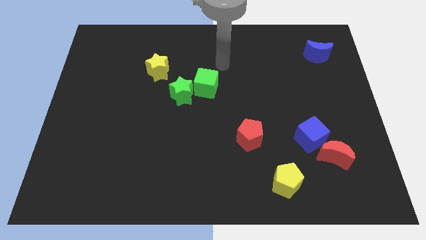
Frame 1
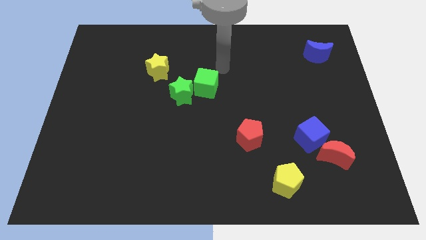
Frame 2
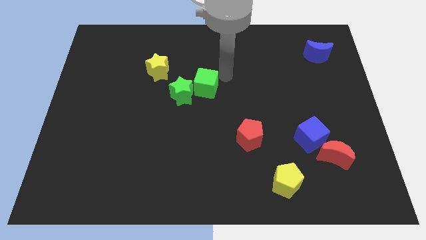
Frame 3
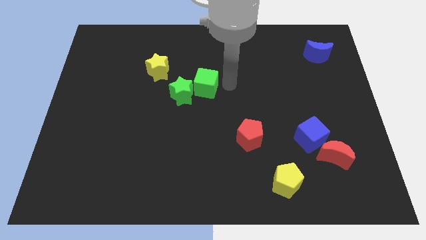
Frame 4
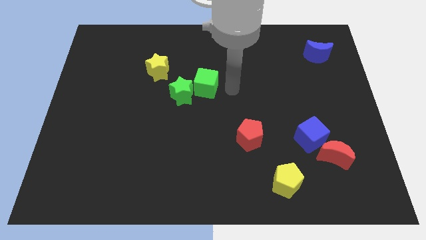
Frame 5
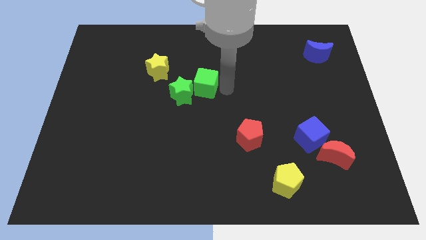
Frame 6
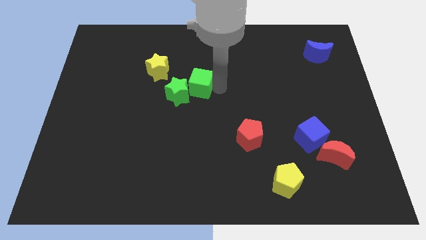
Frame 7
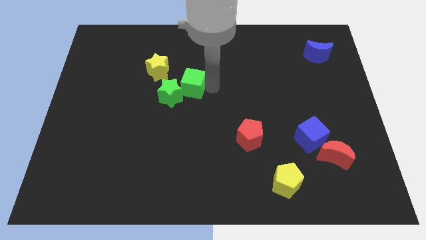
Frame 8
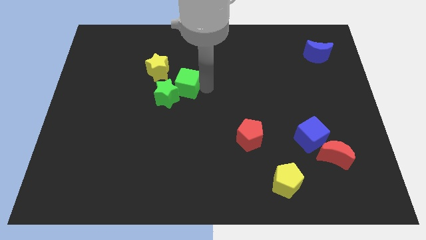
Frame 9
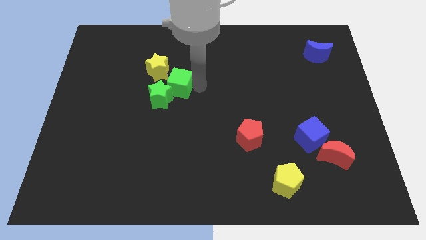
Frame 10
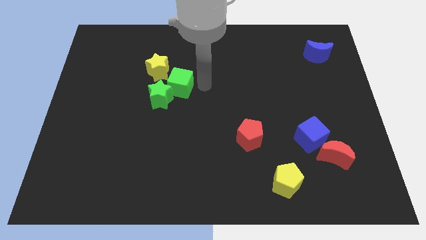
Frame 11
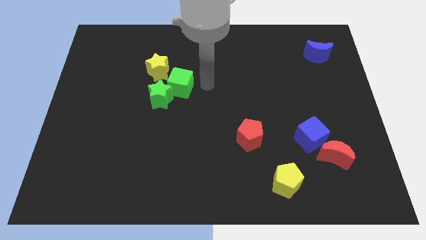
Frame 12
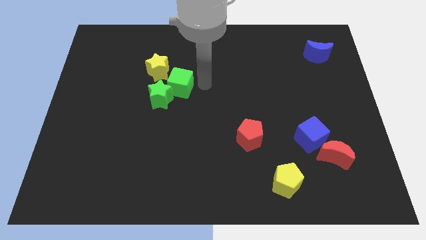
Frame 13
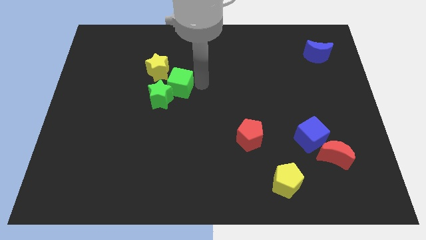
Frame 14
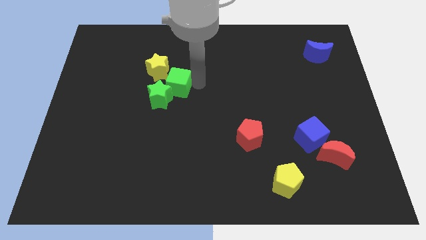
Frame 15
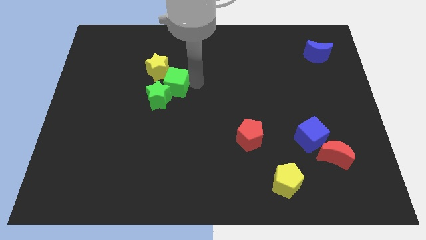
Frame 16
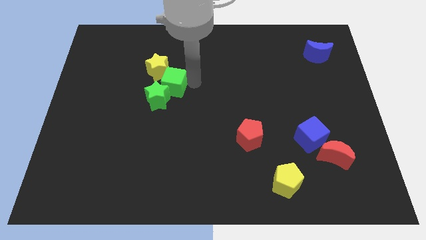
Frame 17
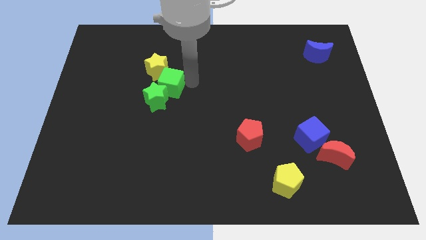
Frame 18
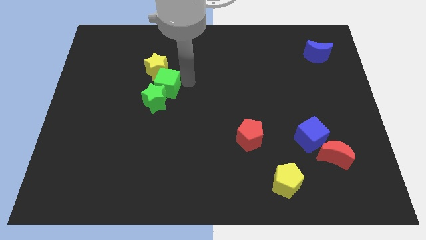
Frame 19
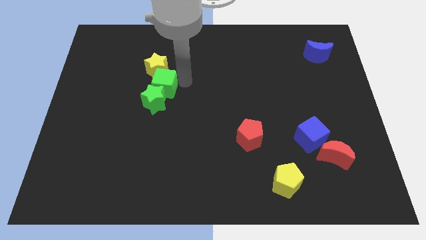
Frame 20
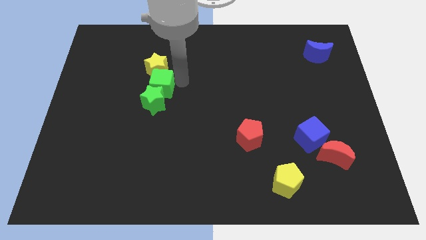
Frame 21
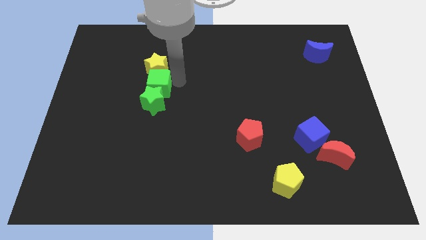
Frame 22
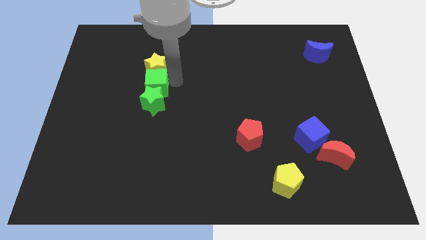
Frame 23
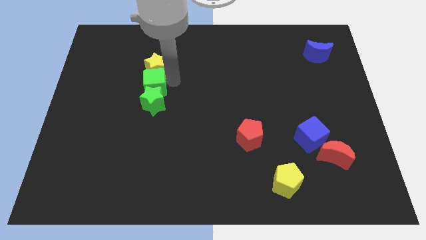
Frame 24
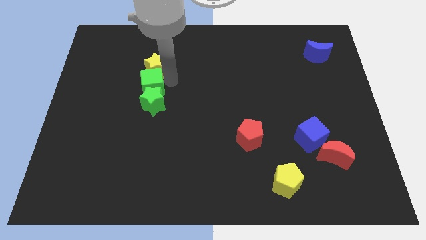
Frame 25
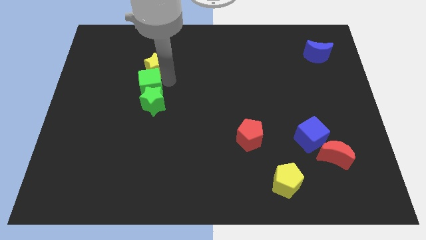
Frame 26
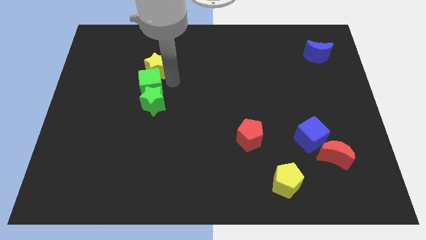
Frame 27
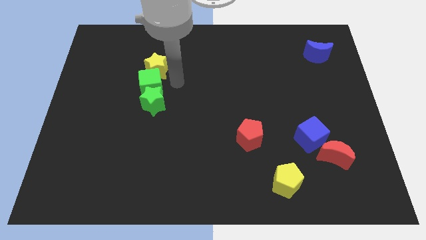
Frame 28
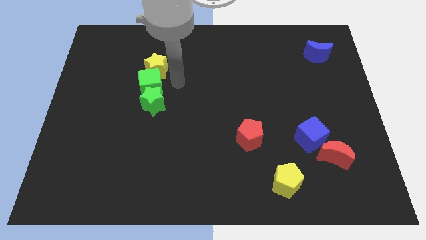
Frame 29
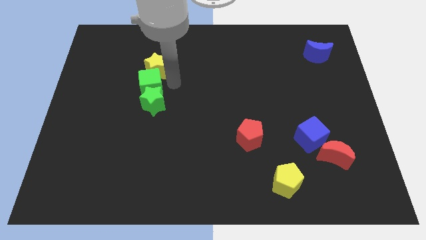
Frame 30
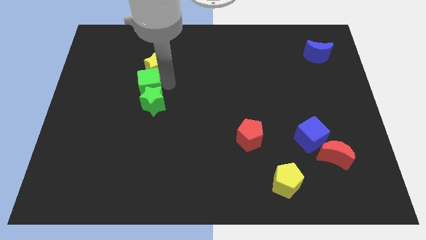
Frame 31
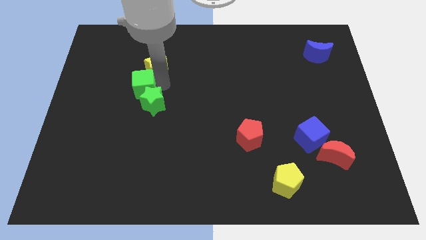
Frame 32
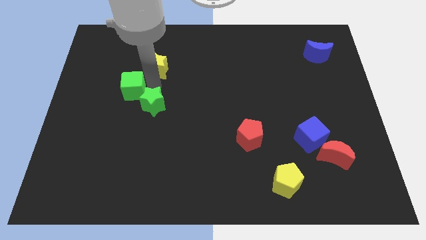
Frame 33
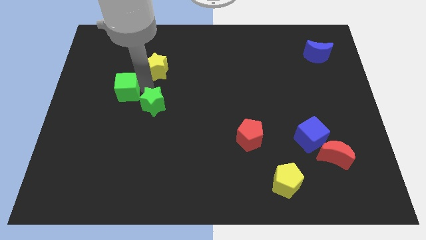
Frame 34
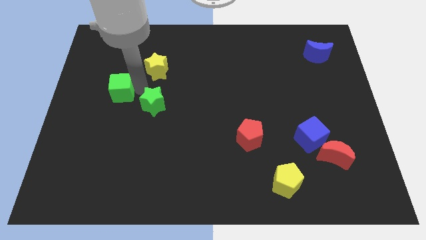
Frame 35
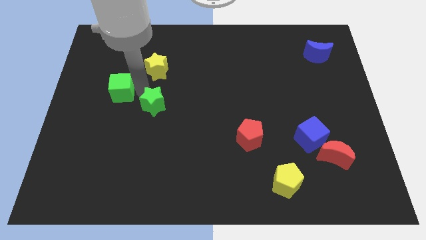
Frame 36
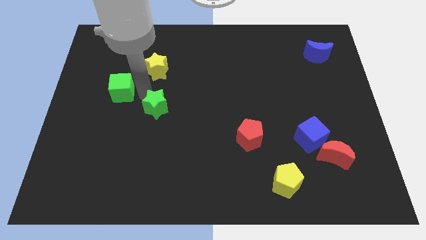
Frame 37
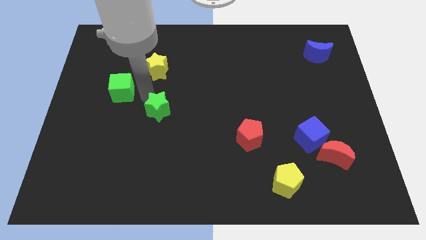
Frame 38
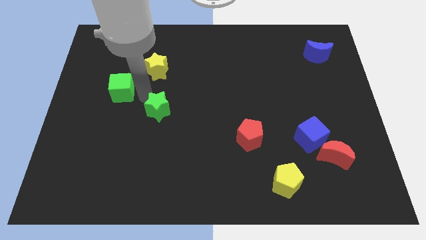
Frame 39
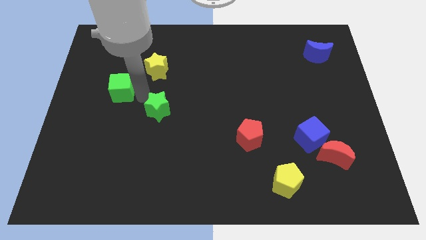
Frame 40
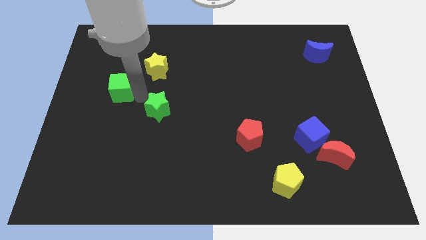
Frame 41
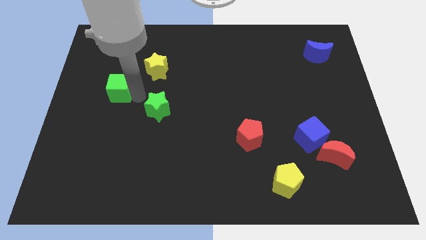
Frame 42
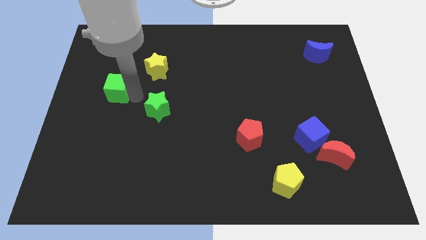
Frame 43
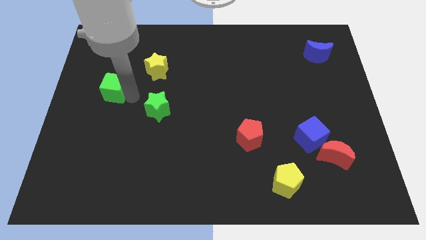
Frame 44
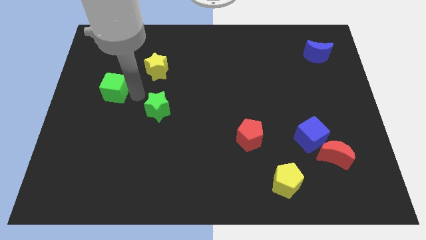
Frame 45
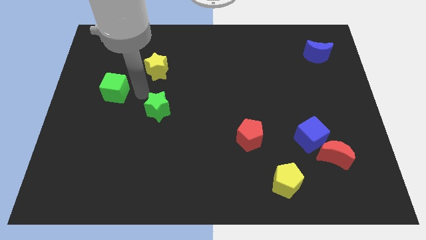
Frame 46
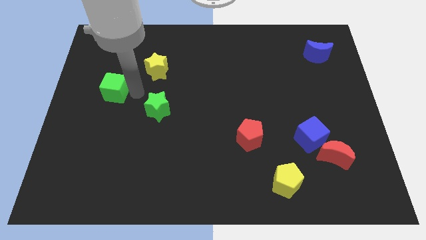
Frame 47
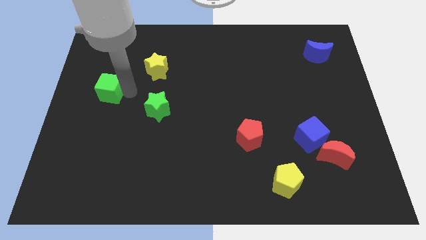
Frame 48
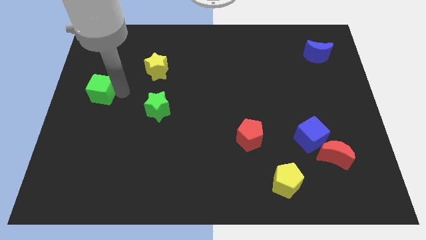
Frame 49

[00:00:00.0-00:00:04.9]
move the green cube to the center left

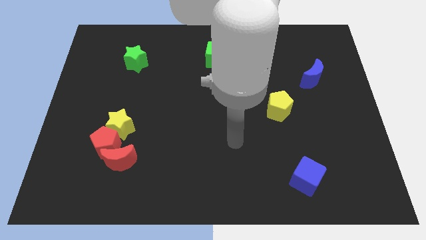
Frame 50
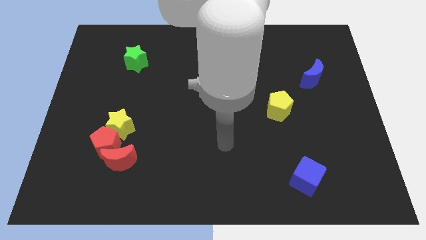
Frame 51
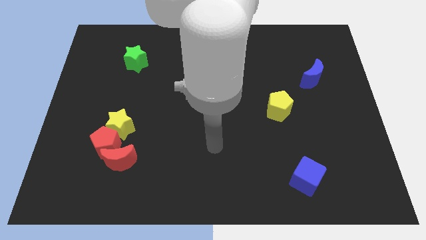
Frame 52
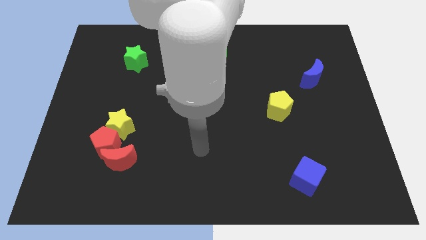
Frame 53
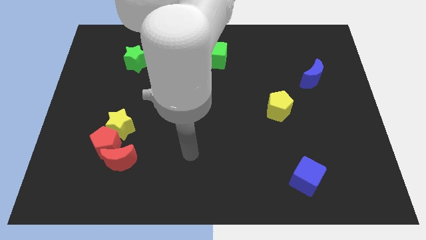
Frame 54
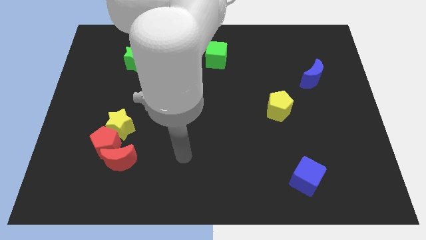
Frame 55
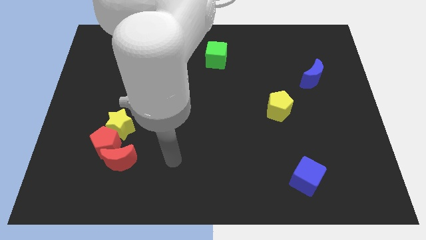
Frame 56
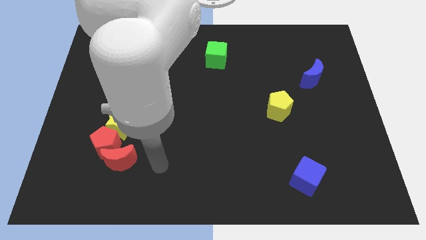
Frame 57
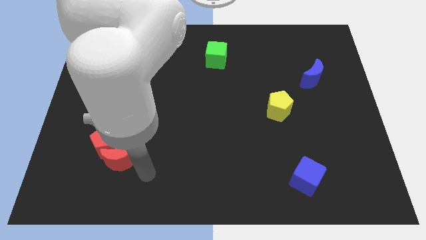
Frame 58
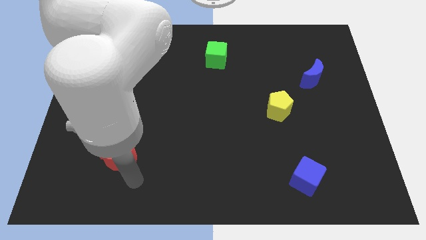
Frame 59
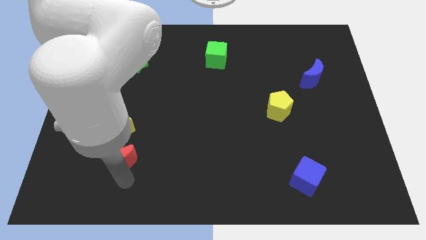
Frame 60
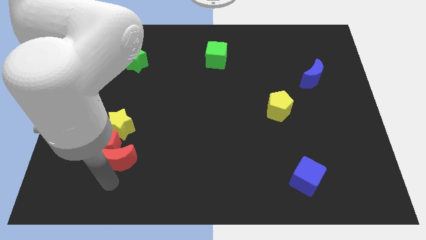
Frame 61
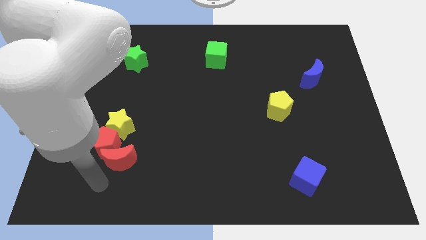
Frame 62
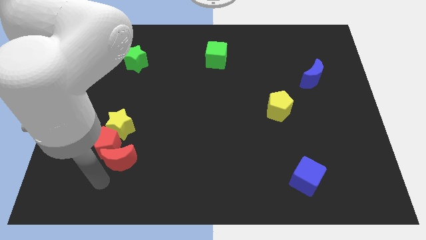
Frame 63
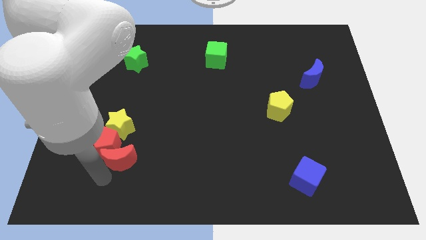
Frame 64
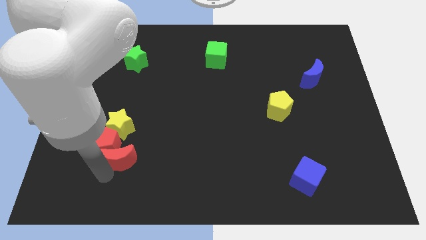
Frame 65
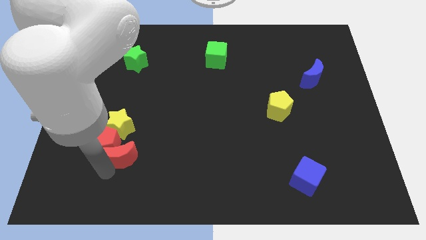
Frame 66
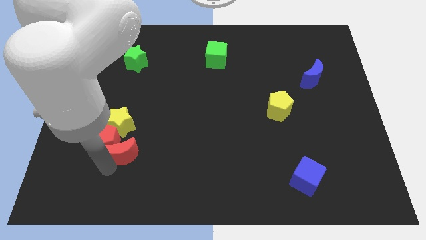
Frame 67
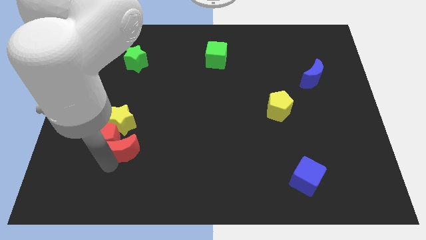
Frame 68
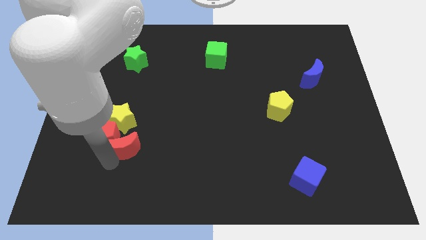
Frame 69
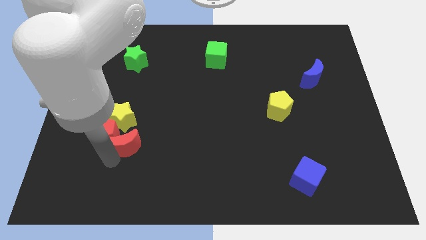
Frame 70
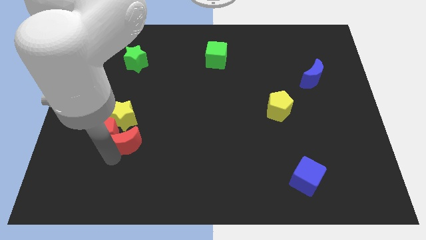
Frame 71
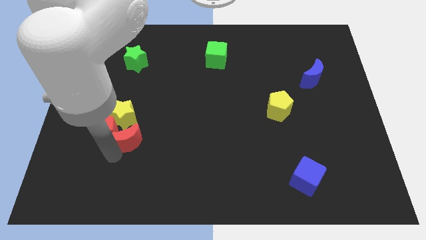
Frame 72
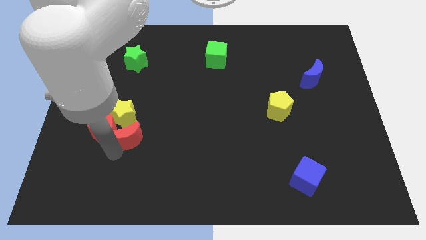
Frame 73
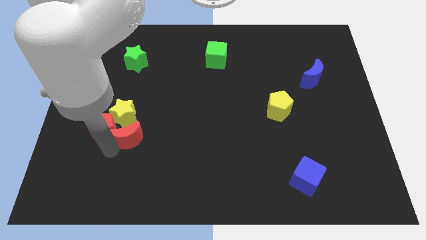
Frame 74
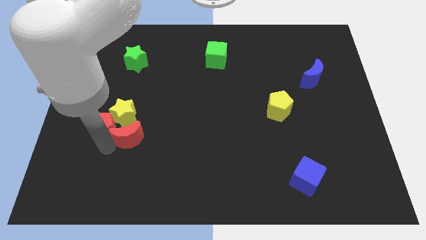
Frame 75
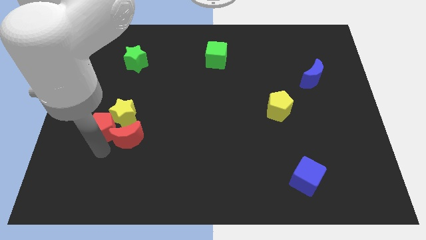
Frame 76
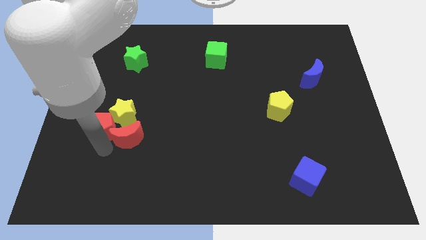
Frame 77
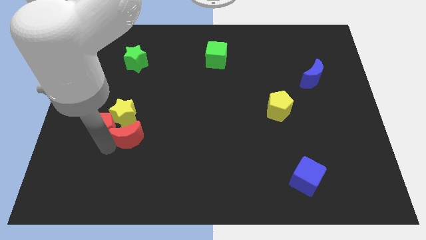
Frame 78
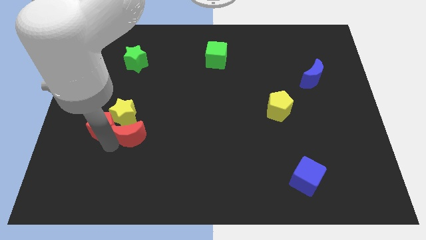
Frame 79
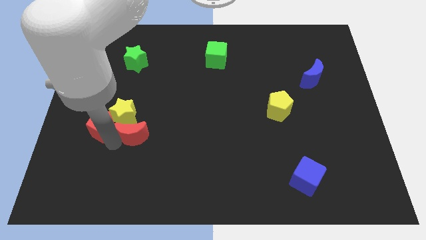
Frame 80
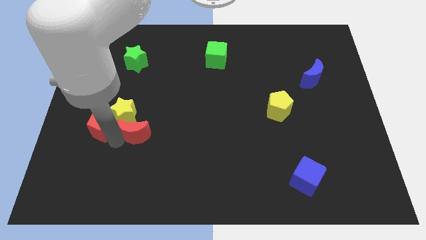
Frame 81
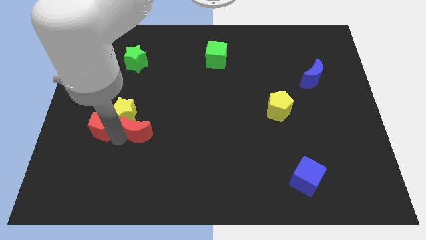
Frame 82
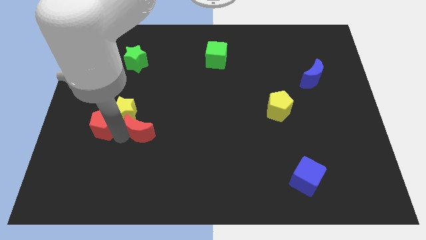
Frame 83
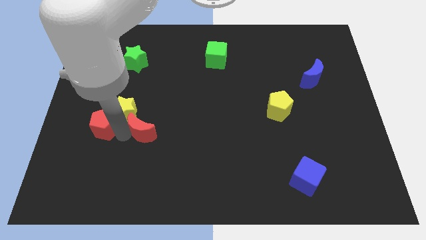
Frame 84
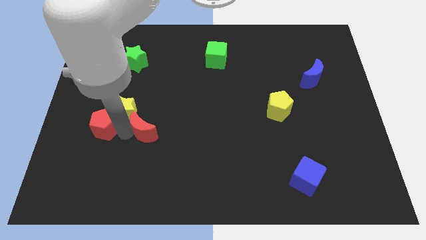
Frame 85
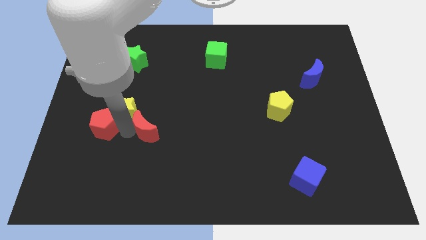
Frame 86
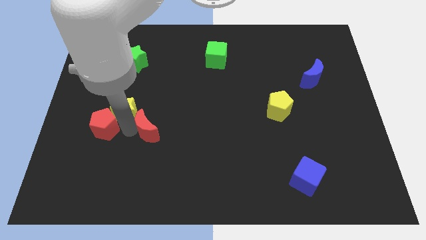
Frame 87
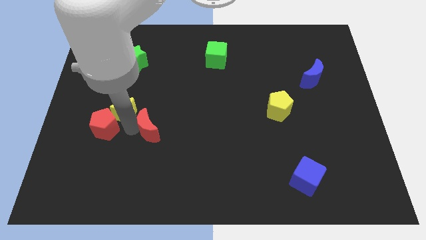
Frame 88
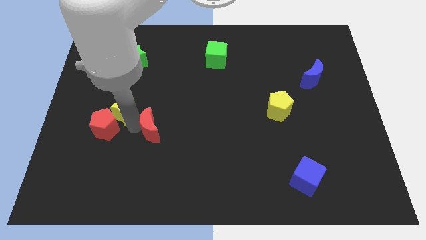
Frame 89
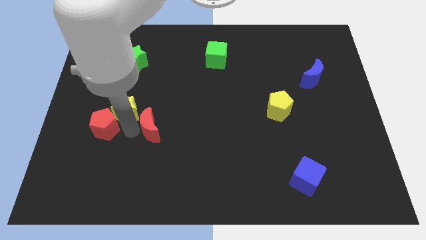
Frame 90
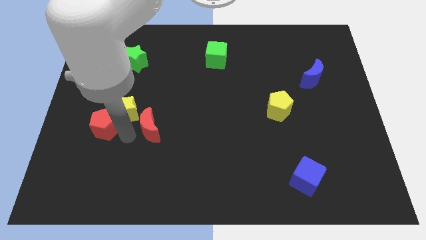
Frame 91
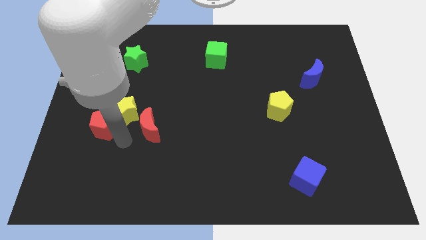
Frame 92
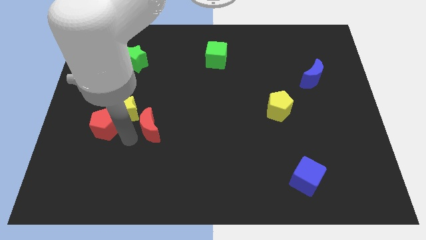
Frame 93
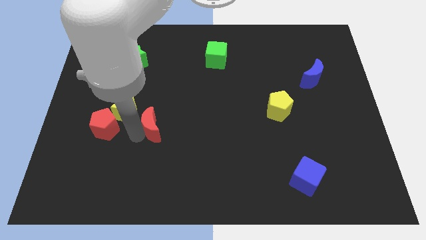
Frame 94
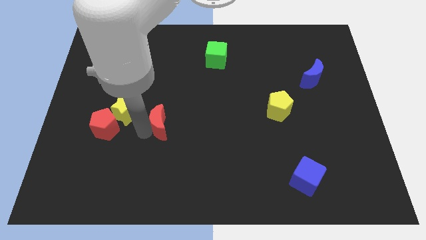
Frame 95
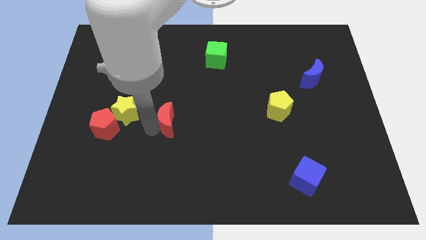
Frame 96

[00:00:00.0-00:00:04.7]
slide the red moon to the middle of the board
